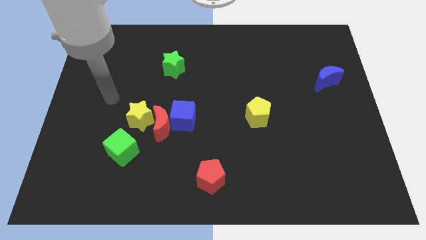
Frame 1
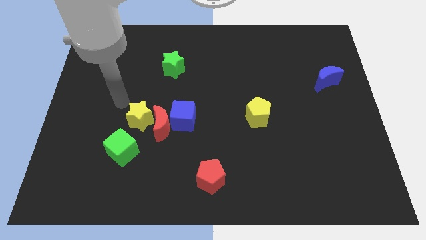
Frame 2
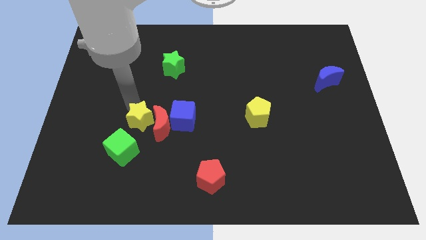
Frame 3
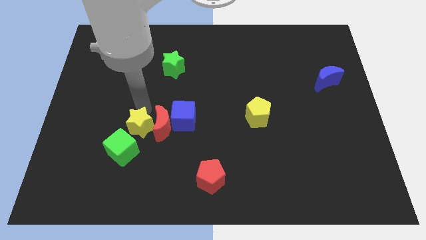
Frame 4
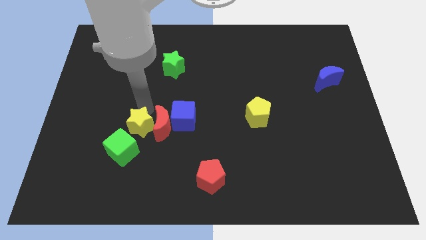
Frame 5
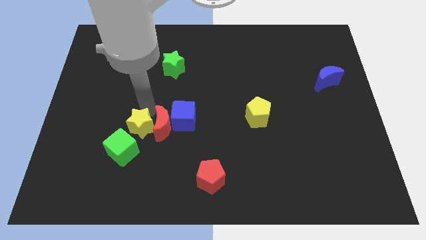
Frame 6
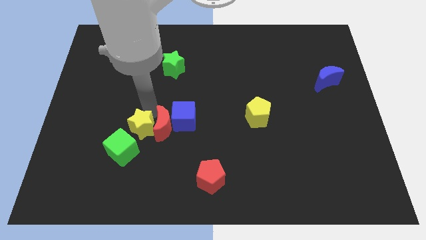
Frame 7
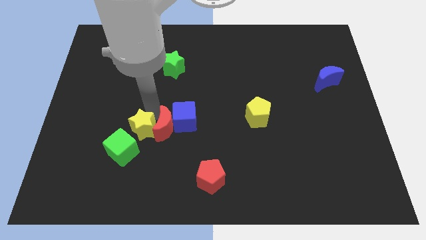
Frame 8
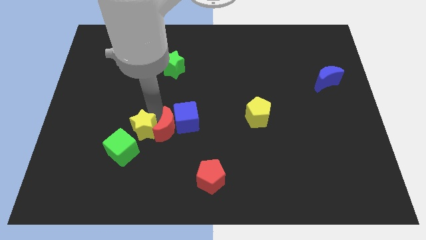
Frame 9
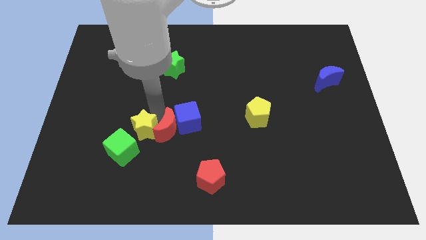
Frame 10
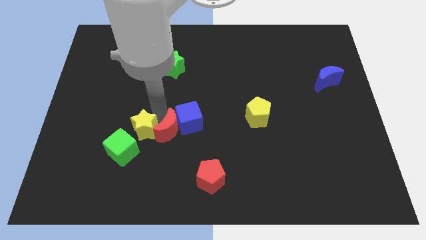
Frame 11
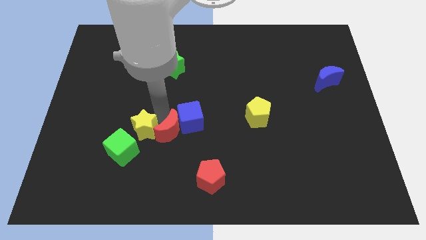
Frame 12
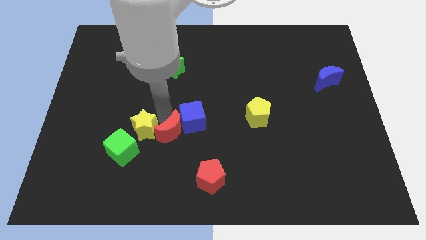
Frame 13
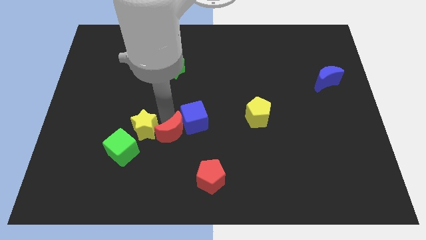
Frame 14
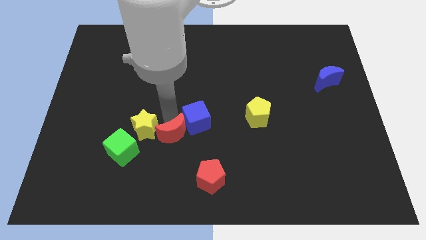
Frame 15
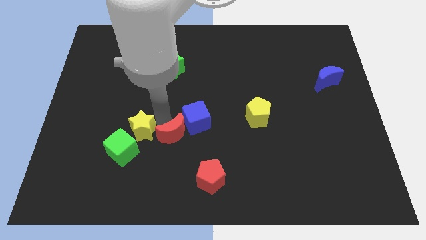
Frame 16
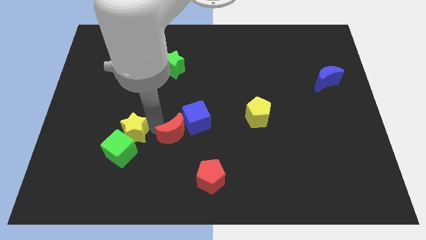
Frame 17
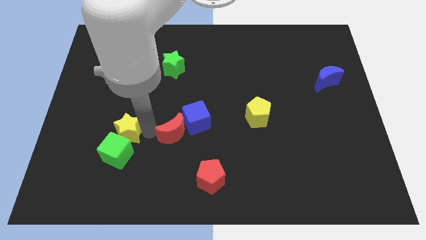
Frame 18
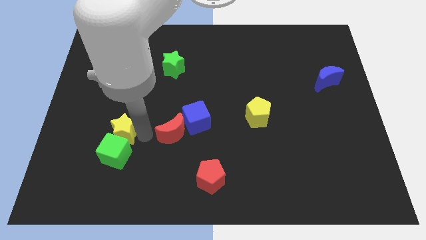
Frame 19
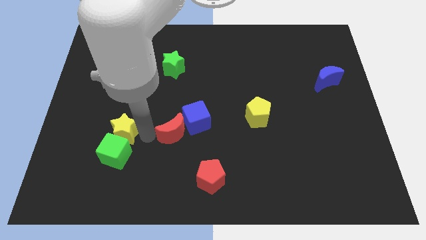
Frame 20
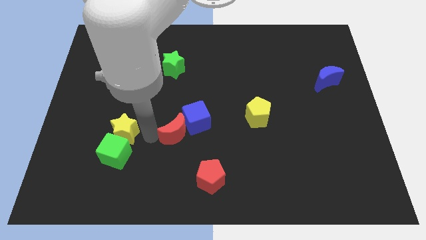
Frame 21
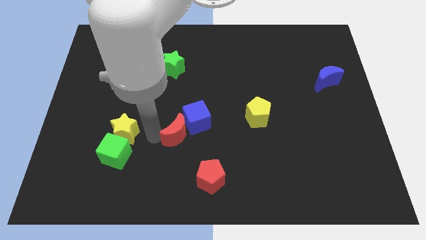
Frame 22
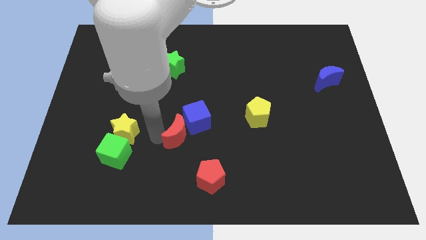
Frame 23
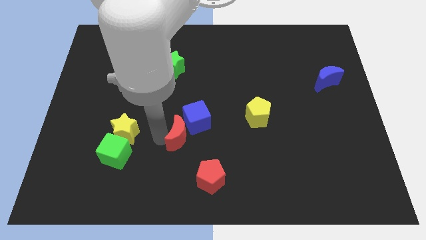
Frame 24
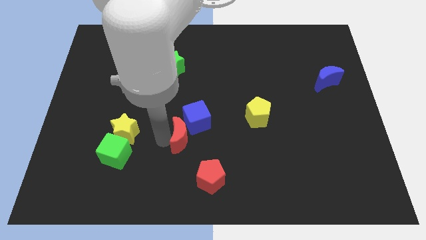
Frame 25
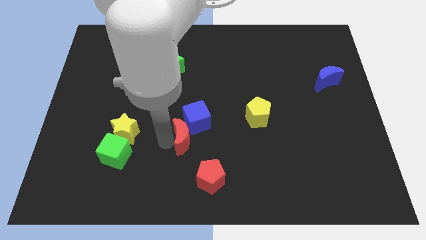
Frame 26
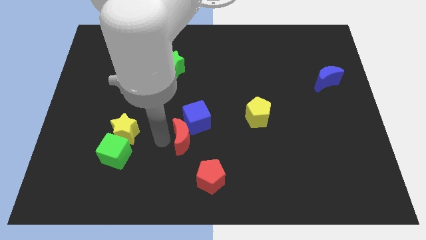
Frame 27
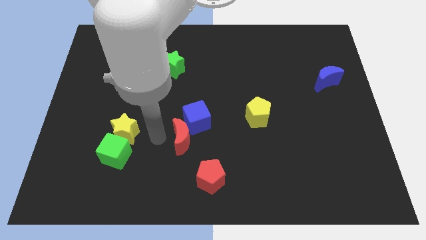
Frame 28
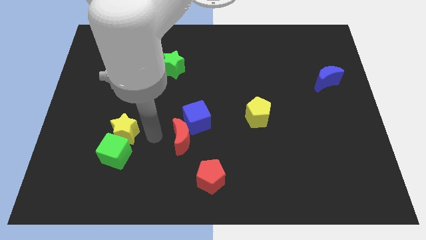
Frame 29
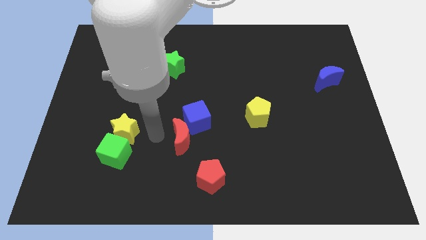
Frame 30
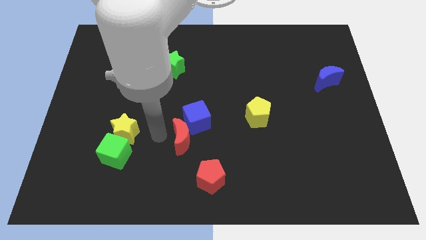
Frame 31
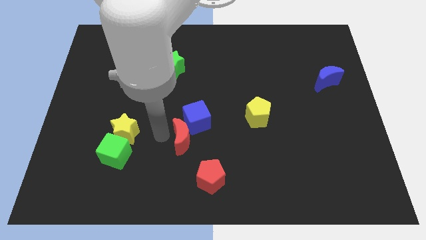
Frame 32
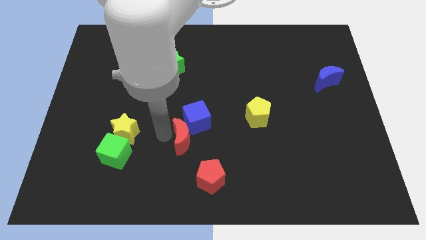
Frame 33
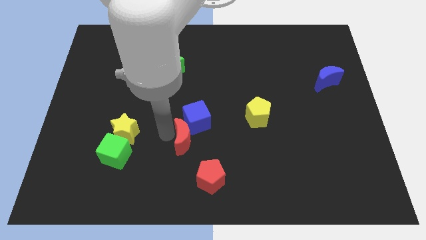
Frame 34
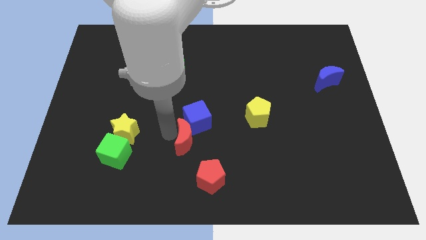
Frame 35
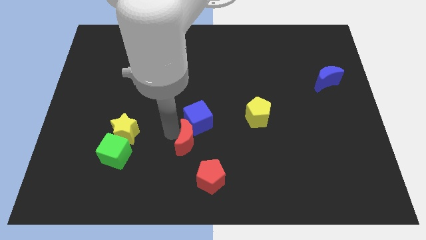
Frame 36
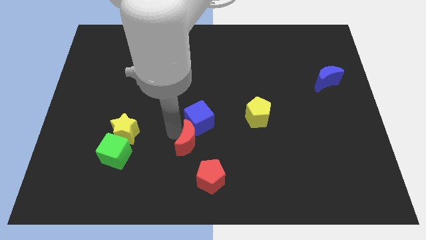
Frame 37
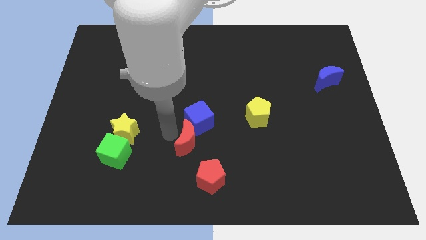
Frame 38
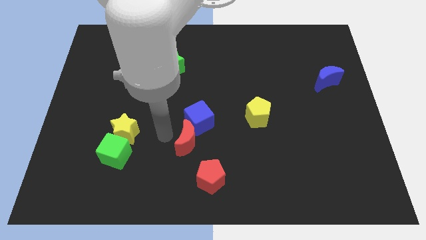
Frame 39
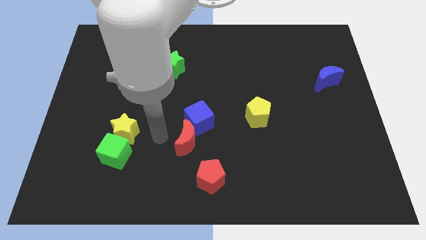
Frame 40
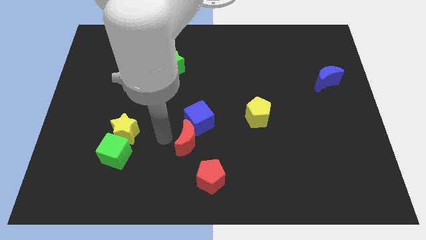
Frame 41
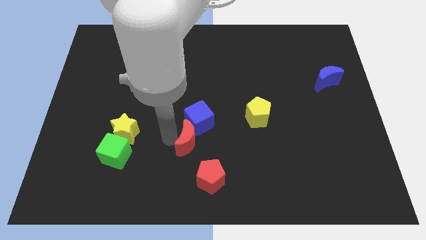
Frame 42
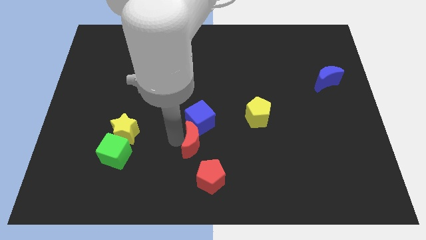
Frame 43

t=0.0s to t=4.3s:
pull the red moon apart from the blue cube, yellow star, and green cube

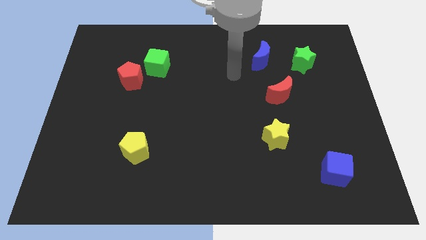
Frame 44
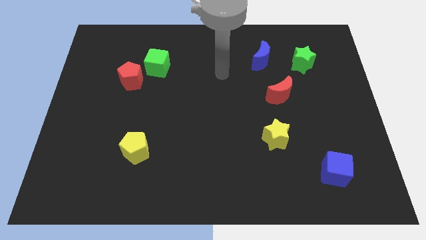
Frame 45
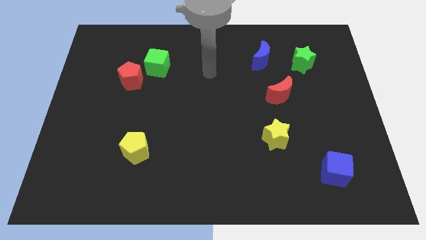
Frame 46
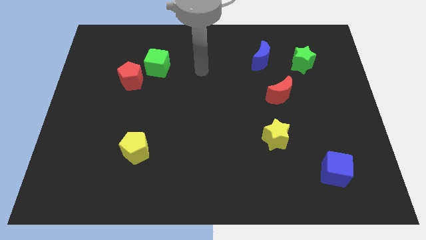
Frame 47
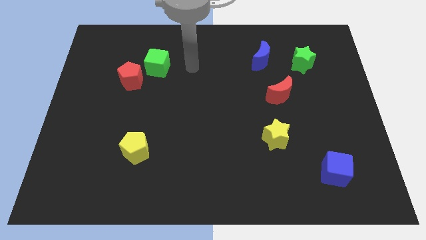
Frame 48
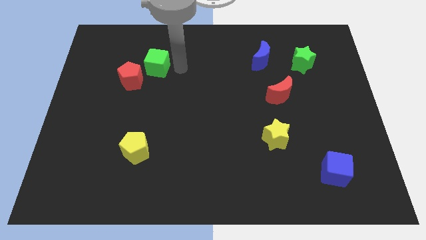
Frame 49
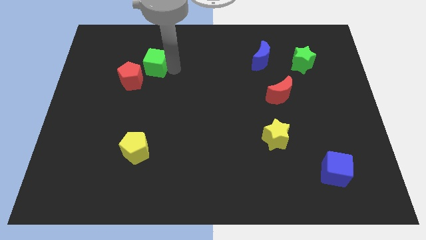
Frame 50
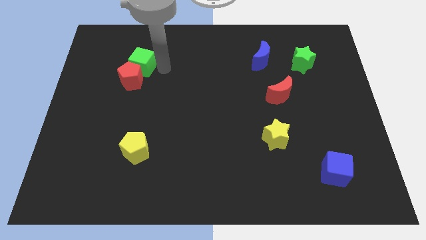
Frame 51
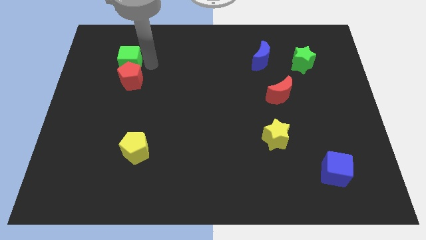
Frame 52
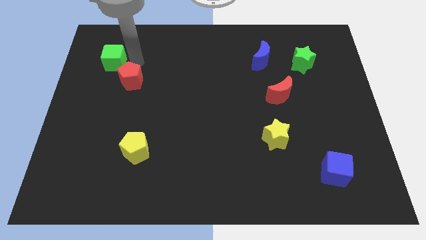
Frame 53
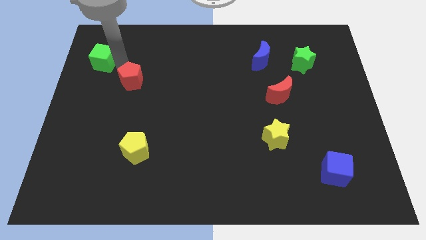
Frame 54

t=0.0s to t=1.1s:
pull the red pentagon apart from the green cube

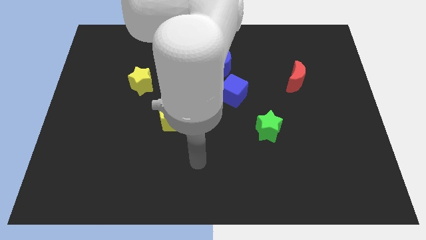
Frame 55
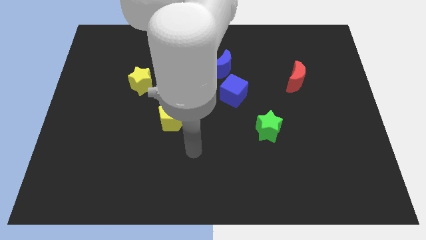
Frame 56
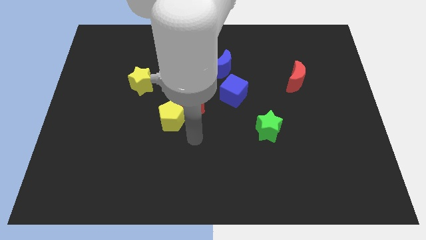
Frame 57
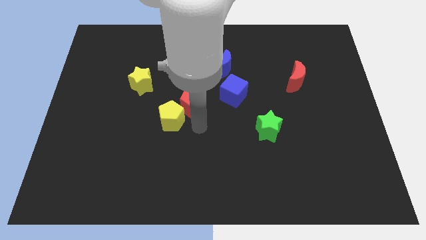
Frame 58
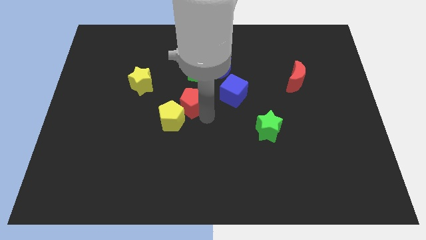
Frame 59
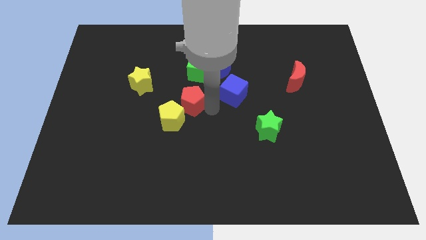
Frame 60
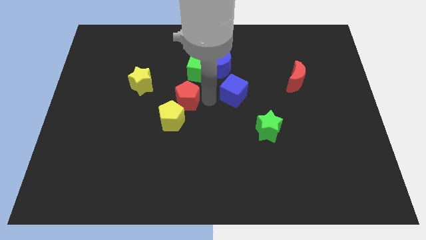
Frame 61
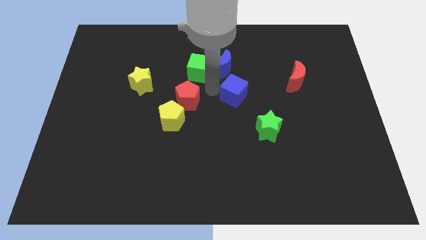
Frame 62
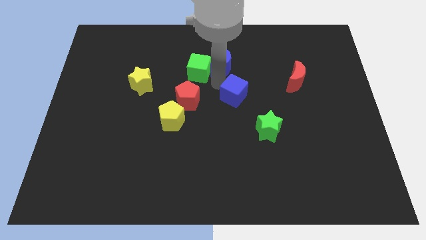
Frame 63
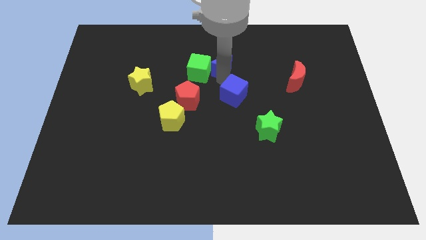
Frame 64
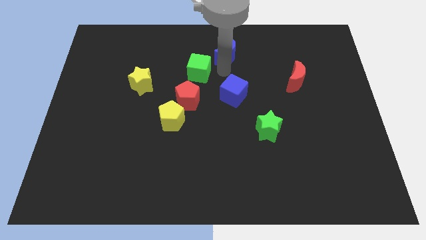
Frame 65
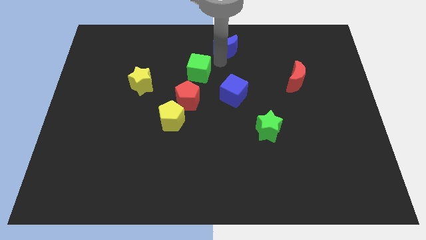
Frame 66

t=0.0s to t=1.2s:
separate the green cube from the blue moon

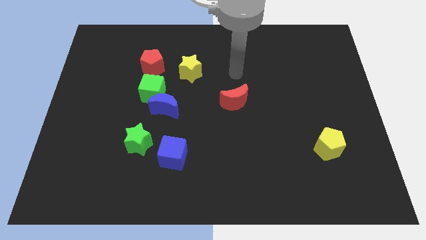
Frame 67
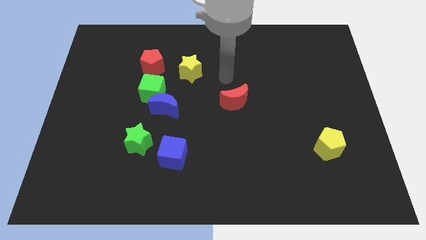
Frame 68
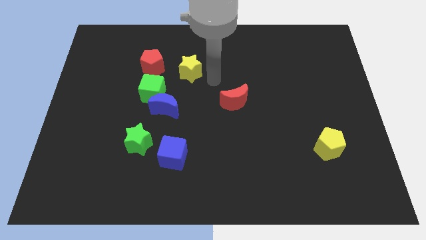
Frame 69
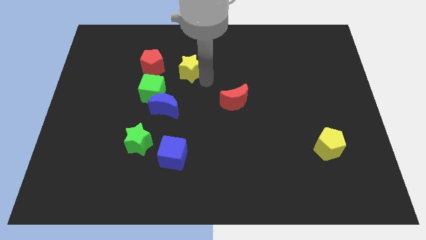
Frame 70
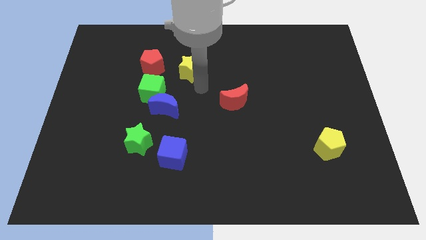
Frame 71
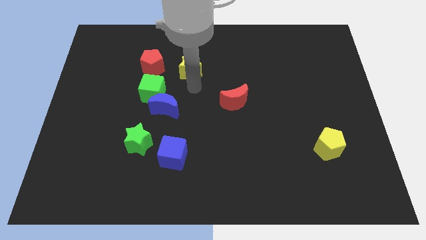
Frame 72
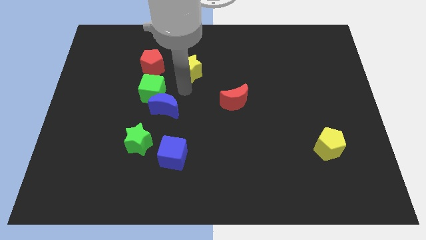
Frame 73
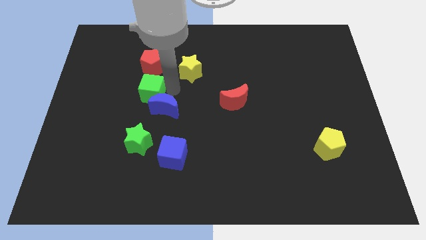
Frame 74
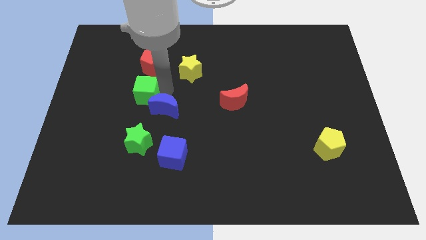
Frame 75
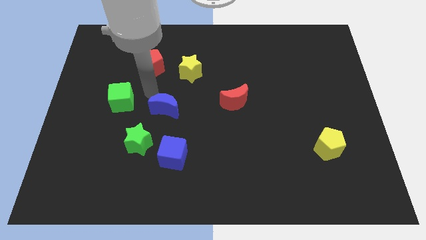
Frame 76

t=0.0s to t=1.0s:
separate the blue moon from the green cube

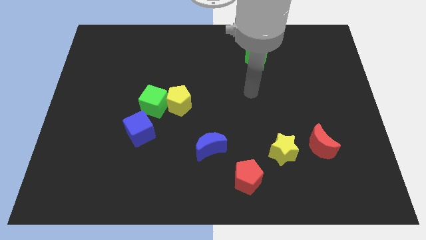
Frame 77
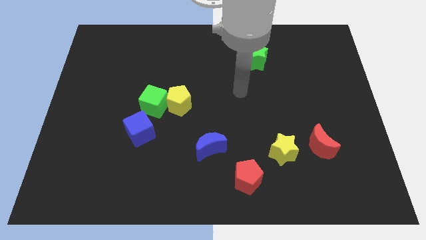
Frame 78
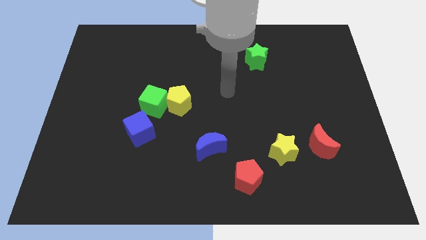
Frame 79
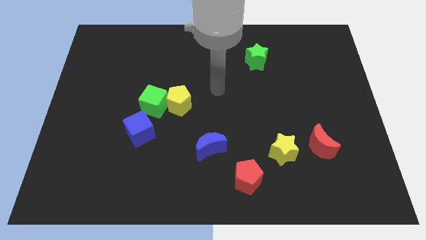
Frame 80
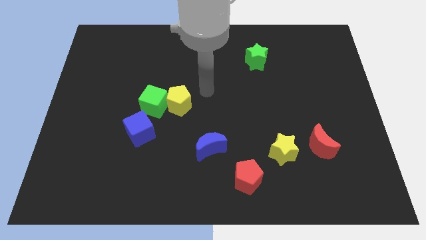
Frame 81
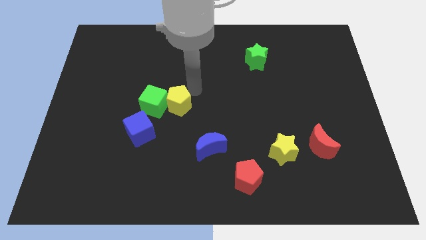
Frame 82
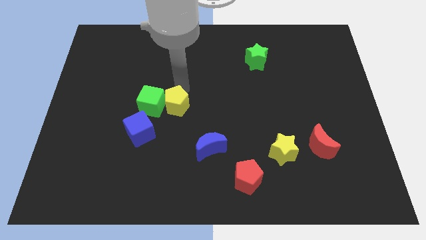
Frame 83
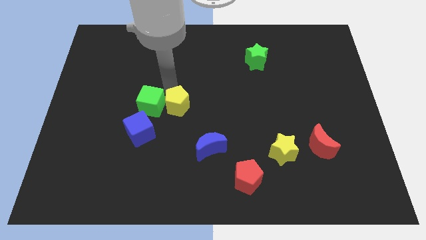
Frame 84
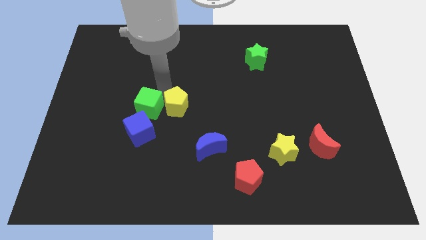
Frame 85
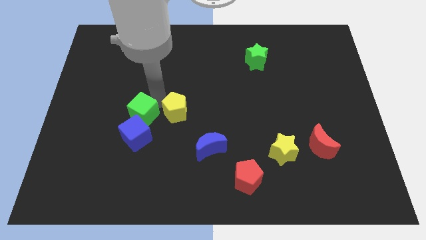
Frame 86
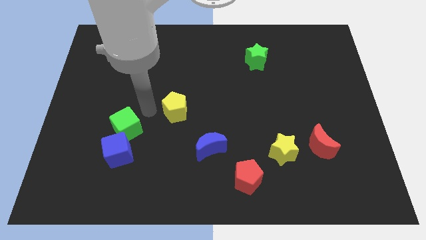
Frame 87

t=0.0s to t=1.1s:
move the yellow pentagon away from the green cube

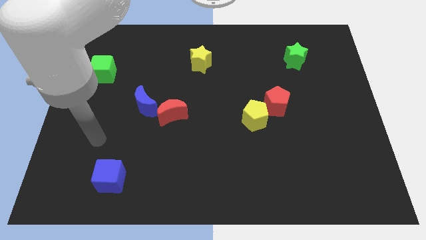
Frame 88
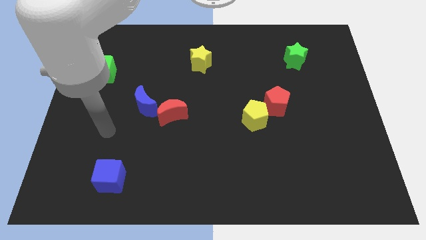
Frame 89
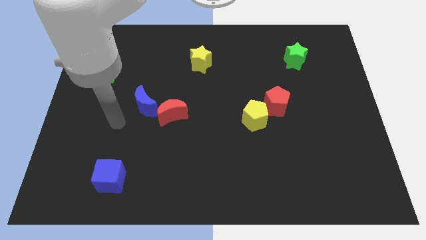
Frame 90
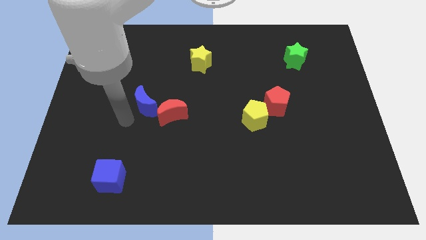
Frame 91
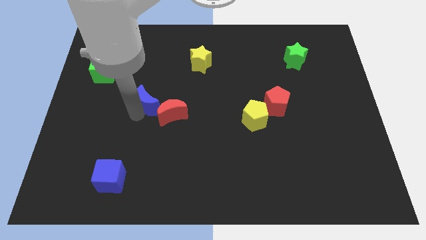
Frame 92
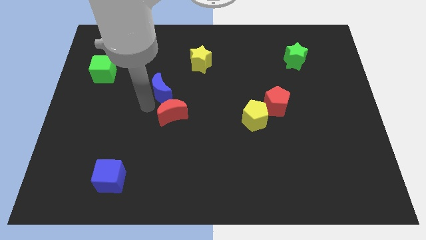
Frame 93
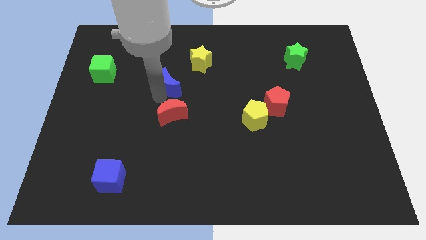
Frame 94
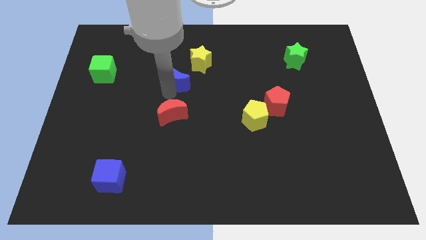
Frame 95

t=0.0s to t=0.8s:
move the red moon away from the blue moon
